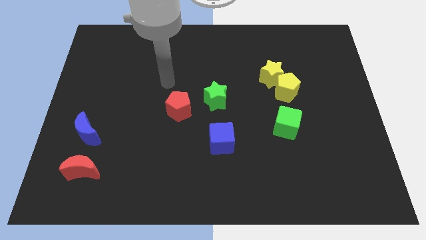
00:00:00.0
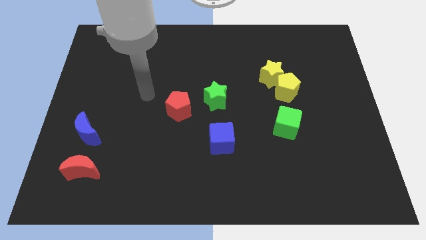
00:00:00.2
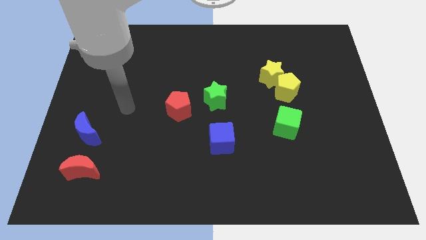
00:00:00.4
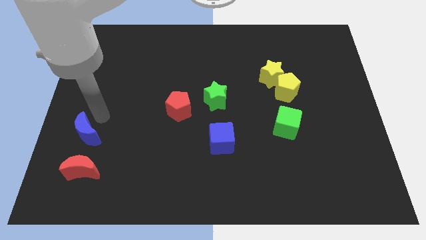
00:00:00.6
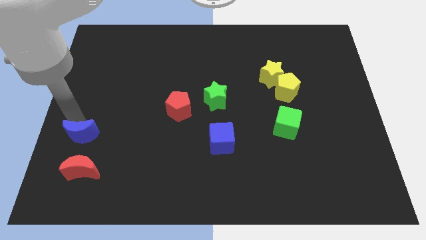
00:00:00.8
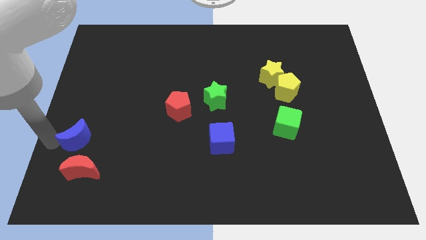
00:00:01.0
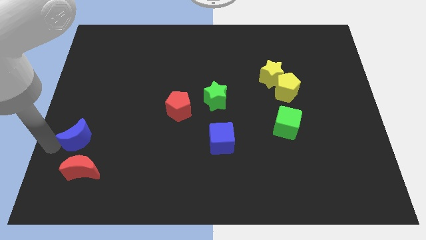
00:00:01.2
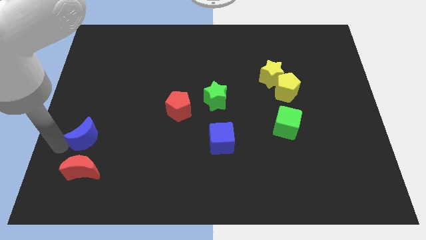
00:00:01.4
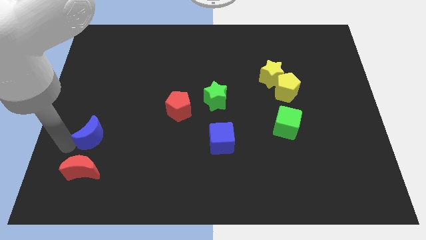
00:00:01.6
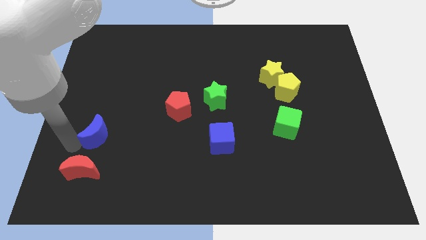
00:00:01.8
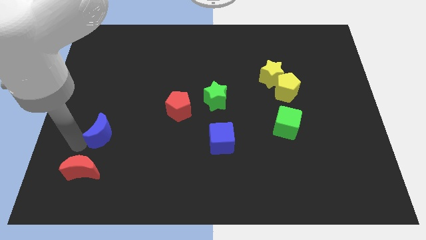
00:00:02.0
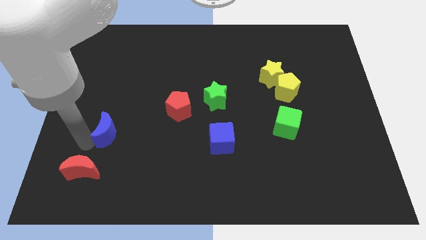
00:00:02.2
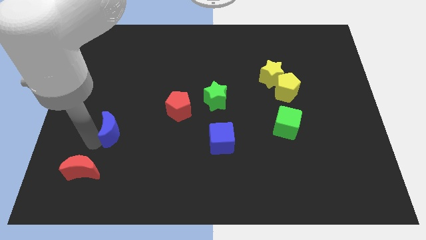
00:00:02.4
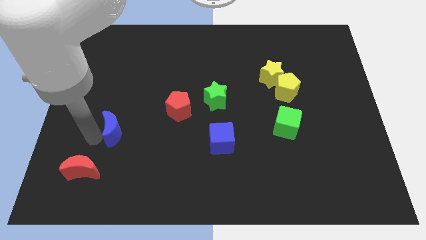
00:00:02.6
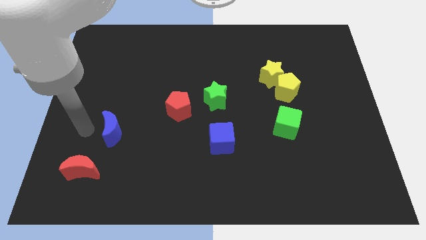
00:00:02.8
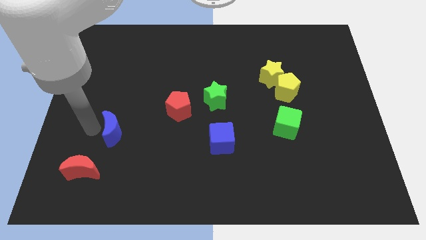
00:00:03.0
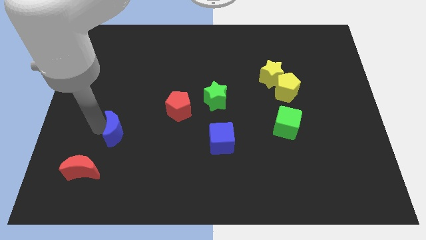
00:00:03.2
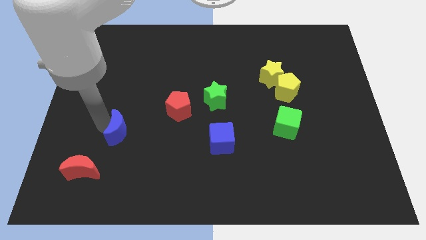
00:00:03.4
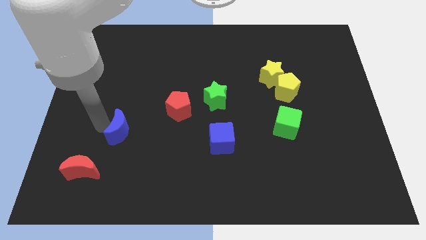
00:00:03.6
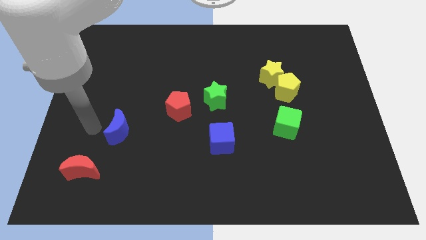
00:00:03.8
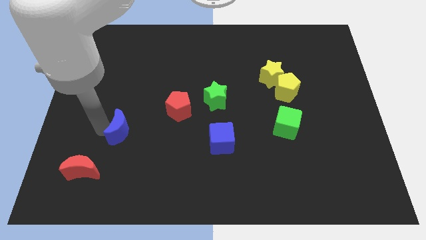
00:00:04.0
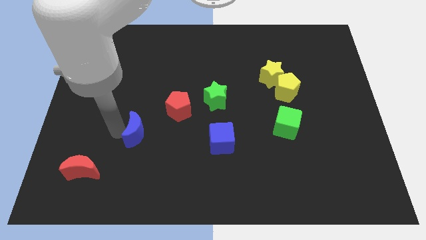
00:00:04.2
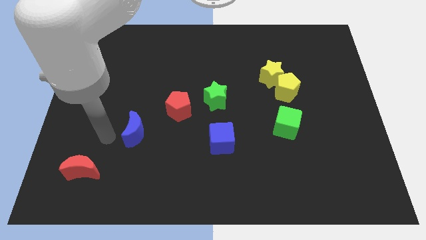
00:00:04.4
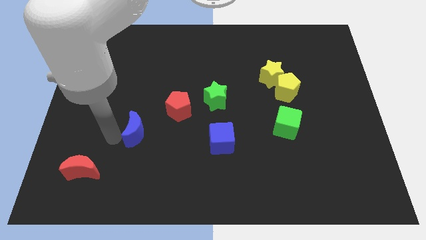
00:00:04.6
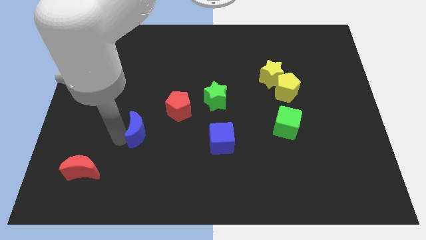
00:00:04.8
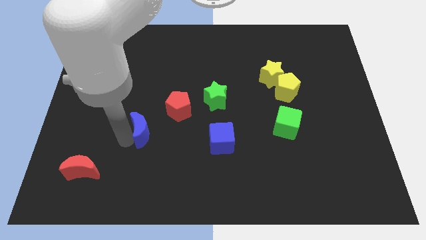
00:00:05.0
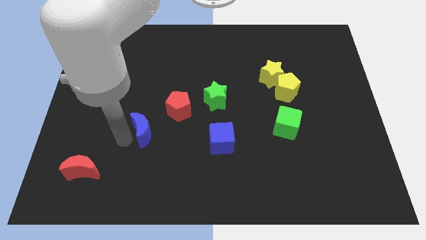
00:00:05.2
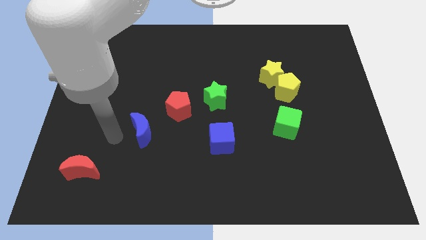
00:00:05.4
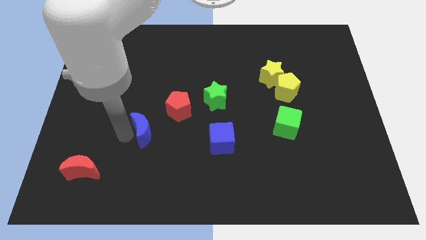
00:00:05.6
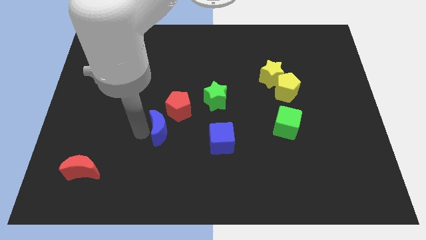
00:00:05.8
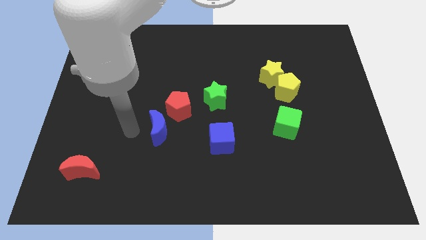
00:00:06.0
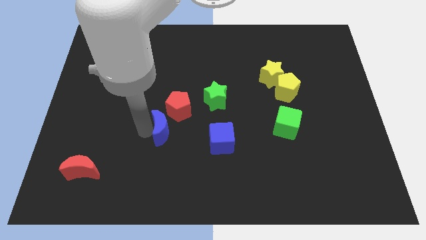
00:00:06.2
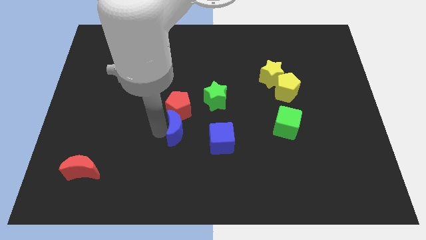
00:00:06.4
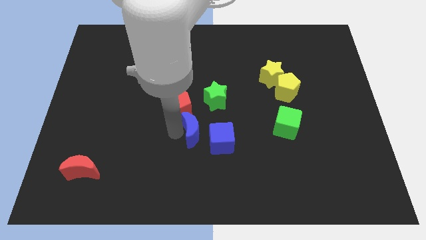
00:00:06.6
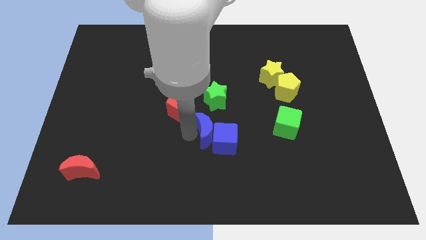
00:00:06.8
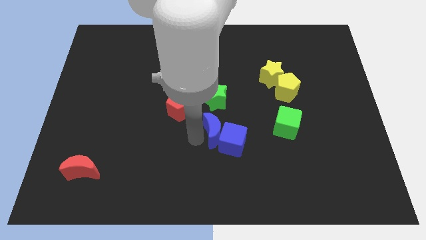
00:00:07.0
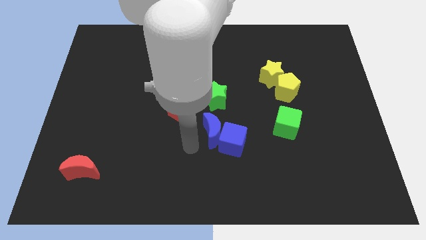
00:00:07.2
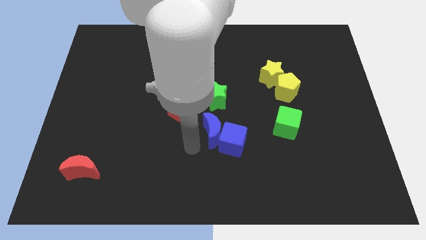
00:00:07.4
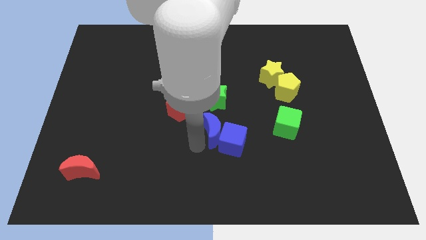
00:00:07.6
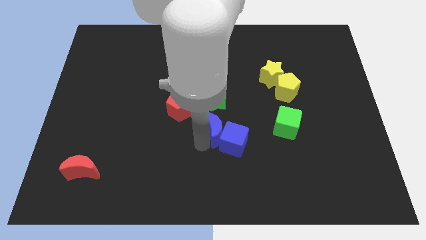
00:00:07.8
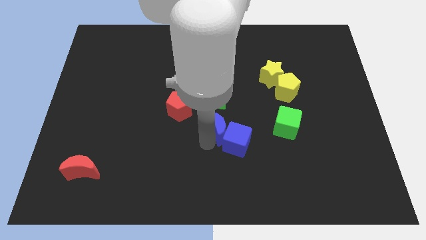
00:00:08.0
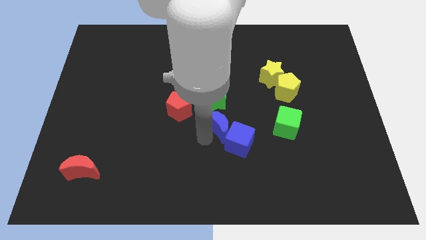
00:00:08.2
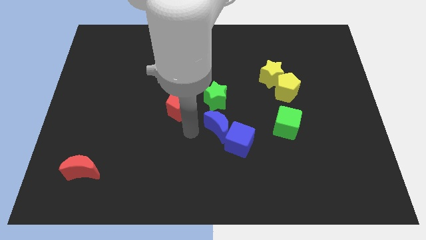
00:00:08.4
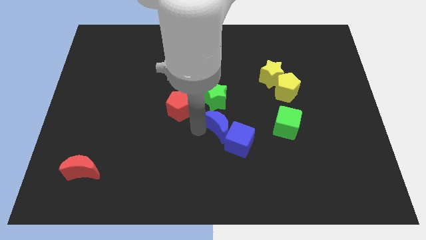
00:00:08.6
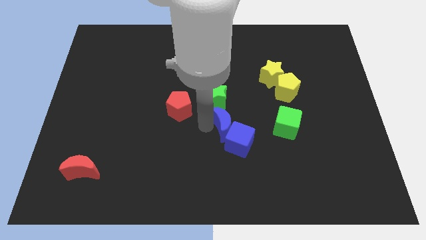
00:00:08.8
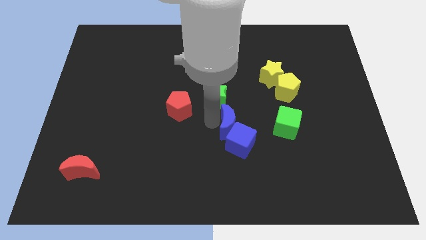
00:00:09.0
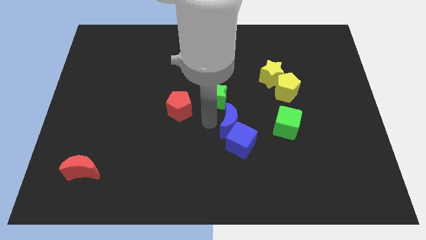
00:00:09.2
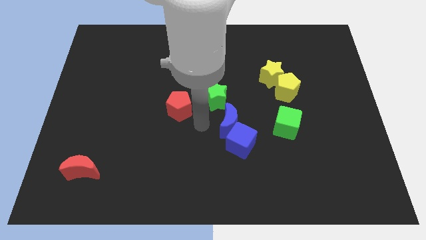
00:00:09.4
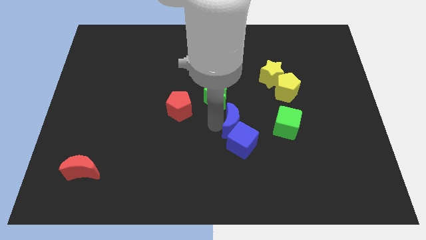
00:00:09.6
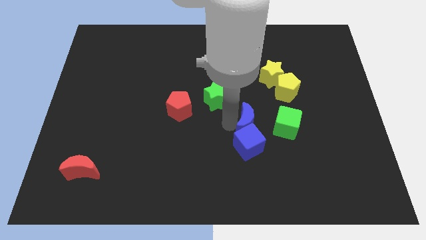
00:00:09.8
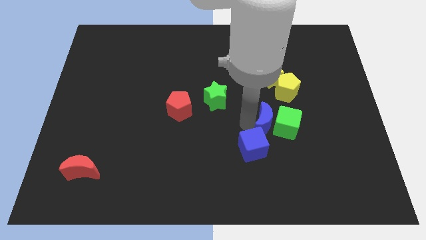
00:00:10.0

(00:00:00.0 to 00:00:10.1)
push the blue moon next to the green cube

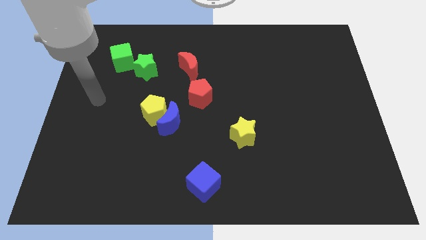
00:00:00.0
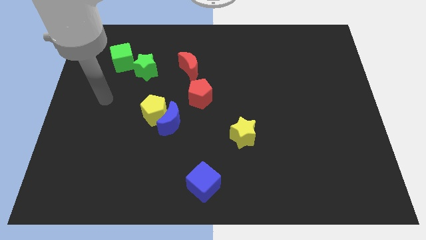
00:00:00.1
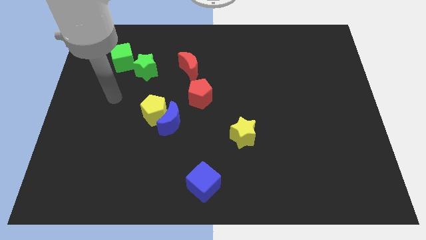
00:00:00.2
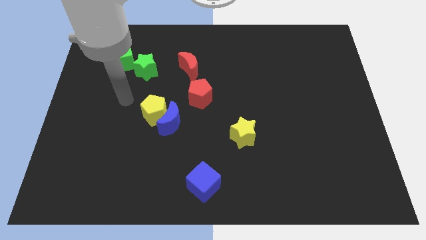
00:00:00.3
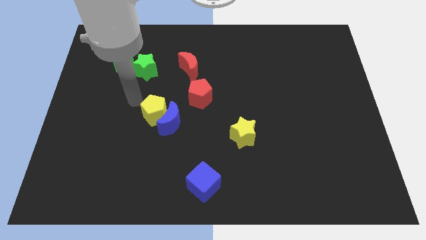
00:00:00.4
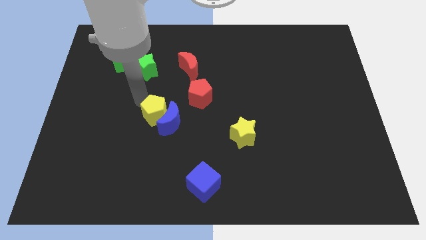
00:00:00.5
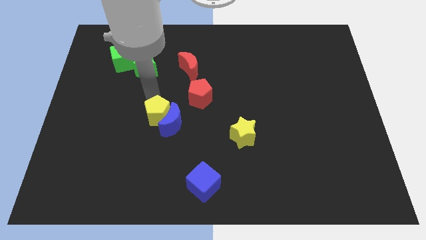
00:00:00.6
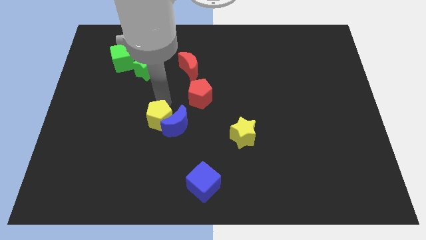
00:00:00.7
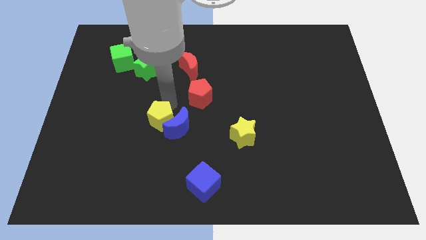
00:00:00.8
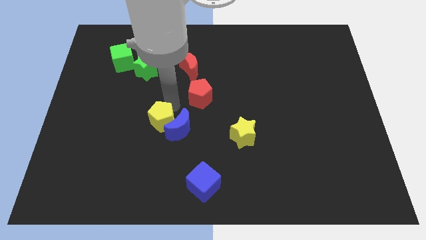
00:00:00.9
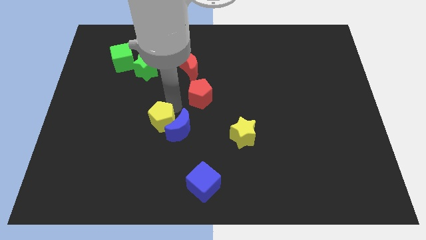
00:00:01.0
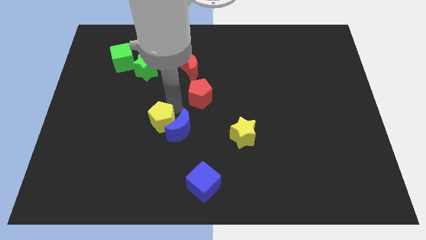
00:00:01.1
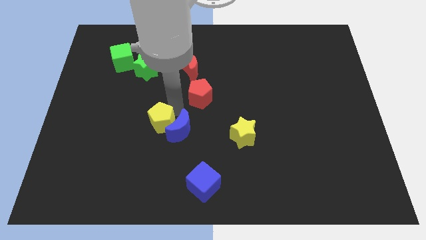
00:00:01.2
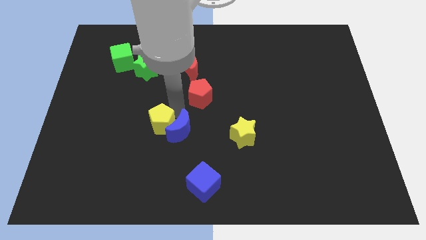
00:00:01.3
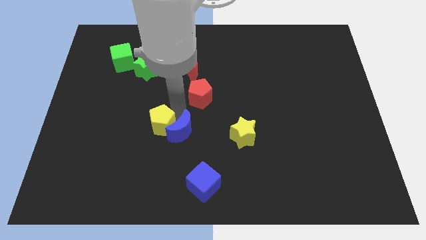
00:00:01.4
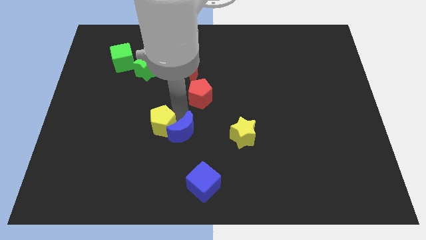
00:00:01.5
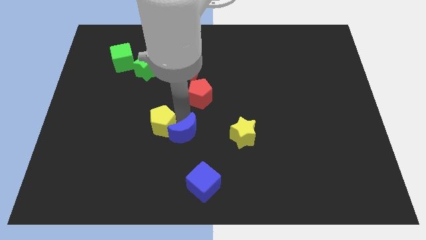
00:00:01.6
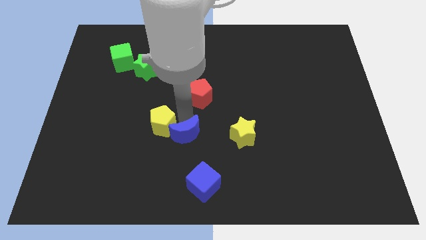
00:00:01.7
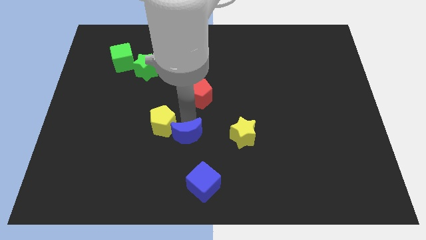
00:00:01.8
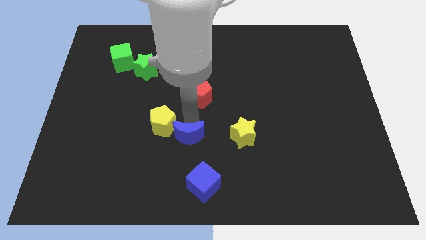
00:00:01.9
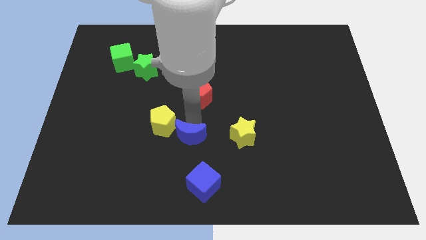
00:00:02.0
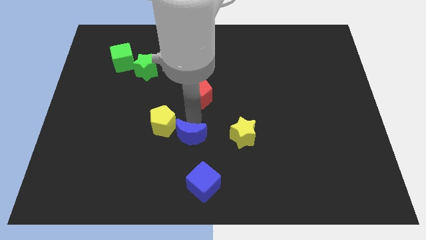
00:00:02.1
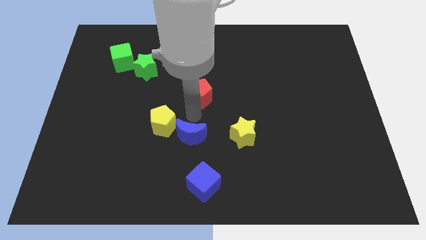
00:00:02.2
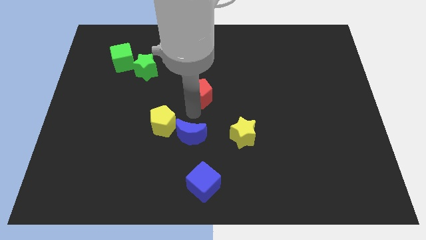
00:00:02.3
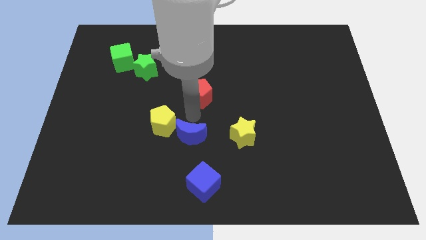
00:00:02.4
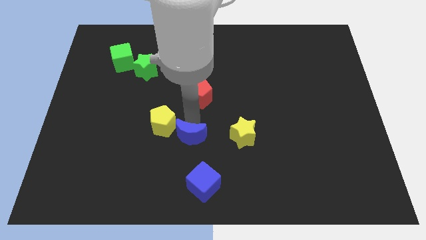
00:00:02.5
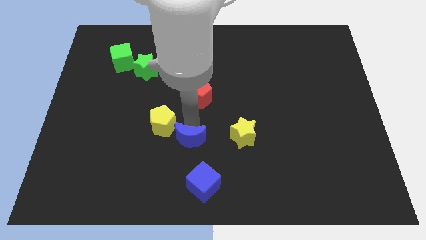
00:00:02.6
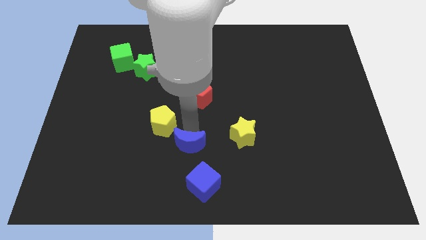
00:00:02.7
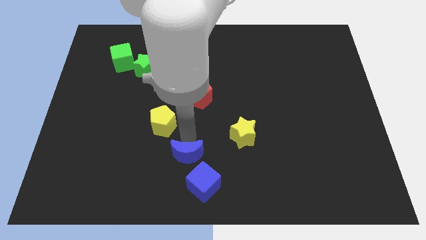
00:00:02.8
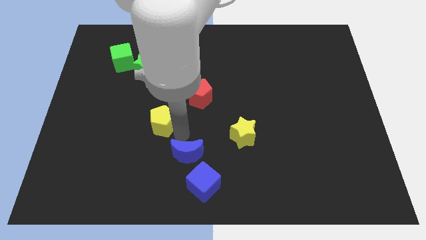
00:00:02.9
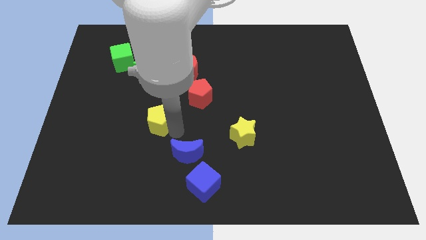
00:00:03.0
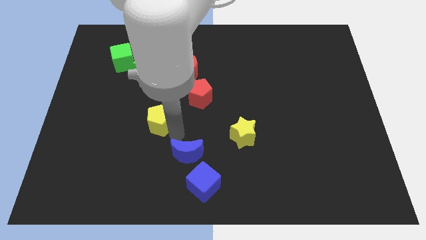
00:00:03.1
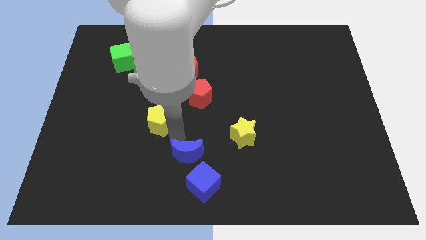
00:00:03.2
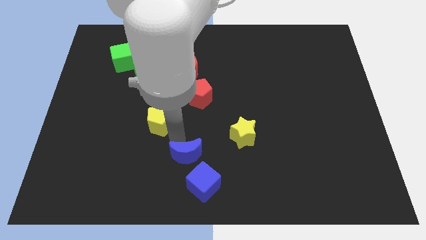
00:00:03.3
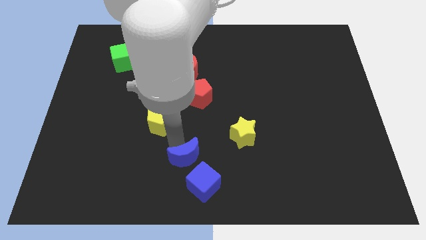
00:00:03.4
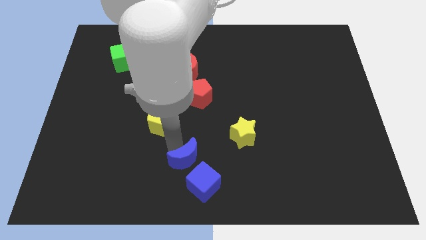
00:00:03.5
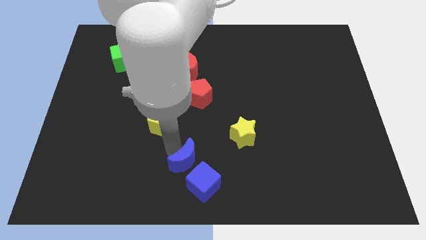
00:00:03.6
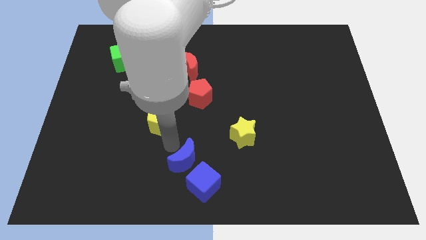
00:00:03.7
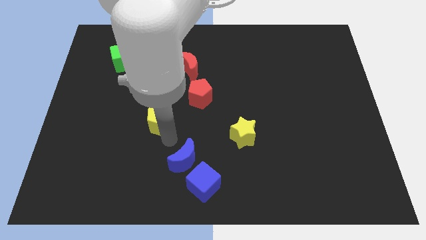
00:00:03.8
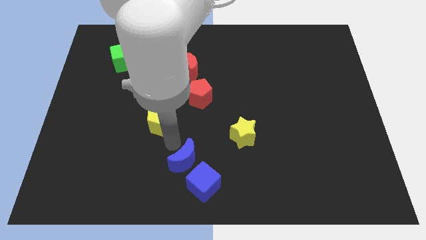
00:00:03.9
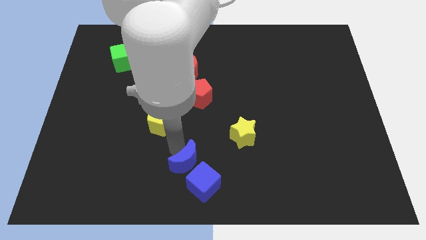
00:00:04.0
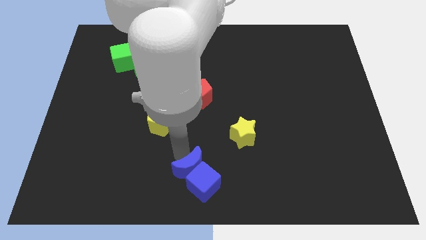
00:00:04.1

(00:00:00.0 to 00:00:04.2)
put the blue moon to the blue cube
